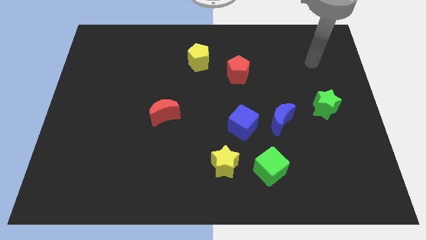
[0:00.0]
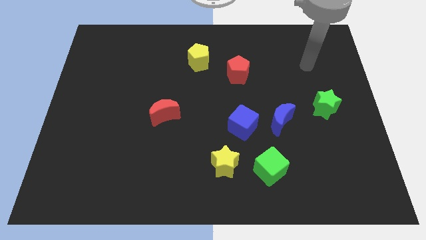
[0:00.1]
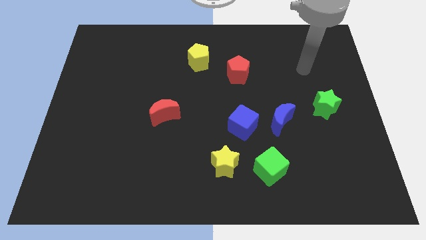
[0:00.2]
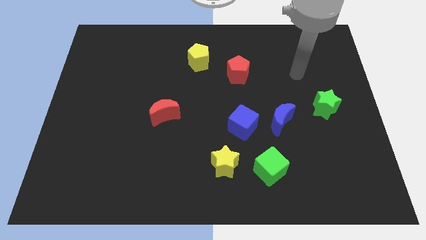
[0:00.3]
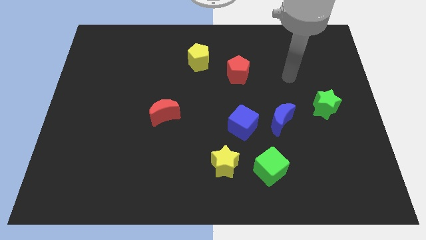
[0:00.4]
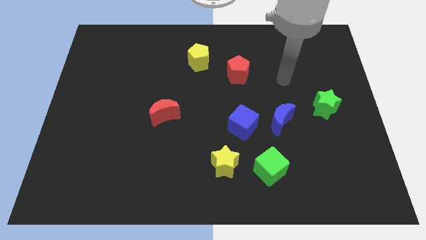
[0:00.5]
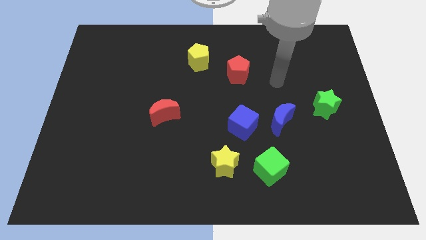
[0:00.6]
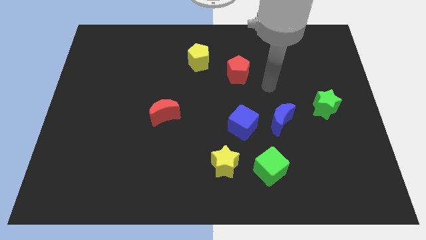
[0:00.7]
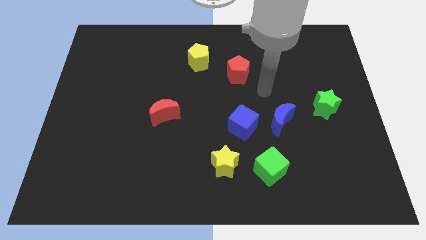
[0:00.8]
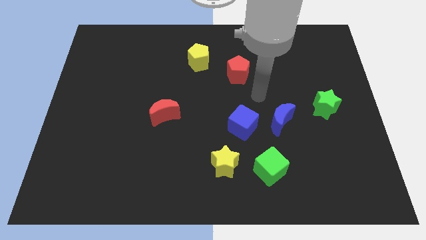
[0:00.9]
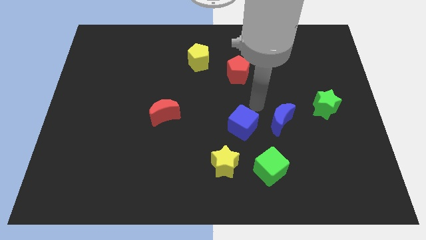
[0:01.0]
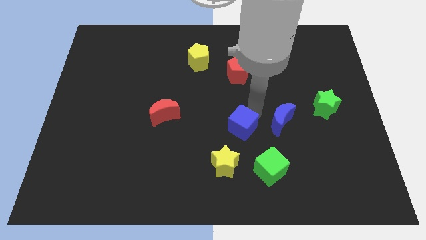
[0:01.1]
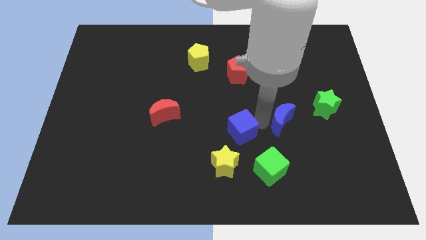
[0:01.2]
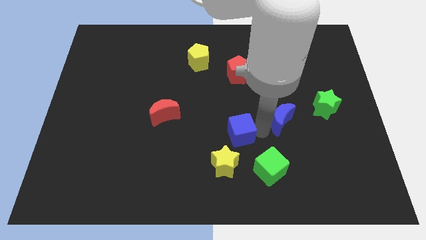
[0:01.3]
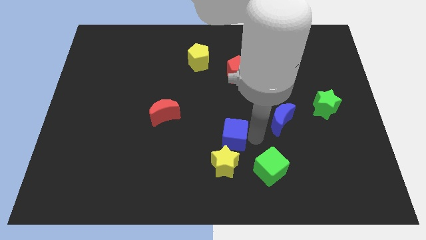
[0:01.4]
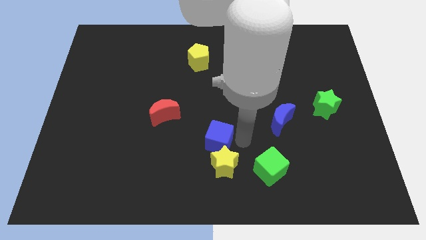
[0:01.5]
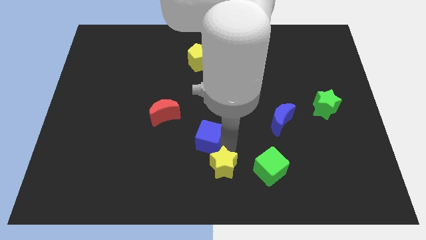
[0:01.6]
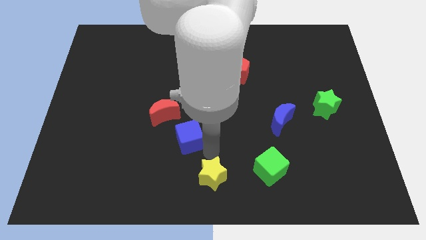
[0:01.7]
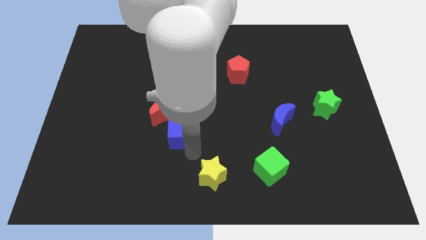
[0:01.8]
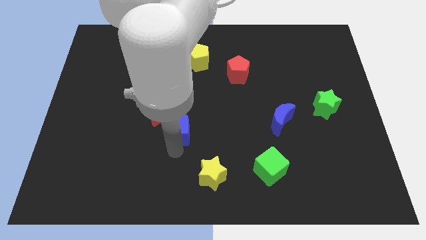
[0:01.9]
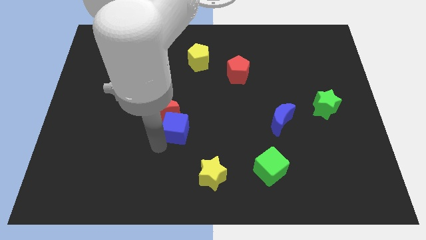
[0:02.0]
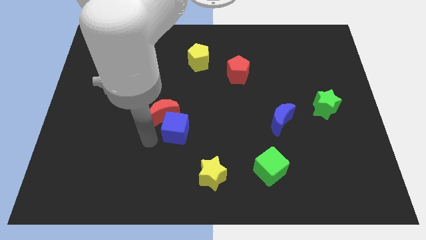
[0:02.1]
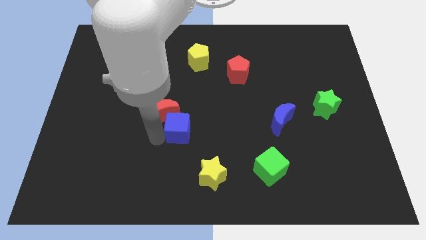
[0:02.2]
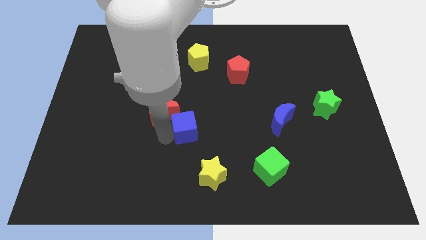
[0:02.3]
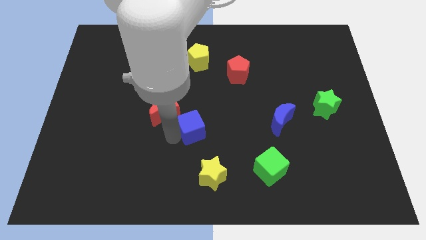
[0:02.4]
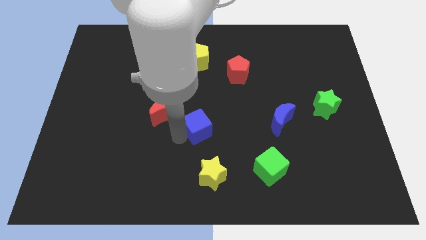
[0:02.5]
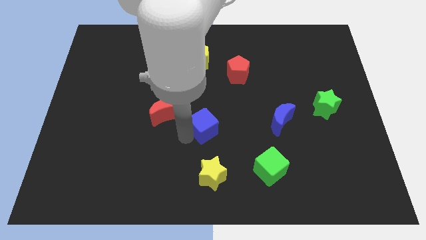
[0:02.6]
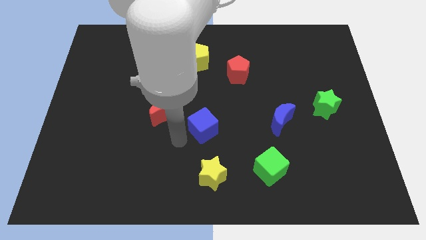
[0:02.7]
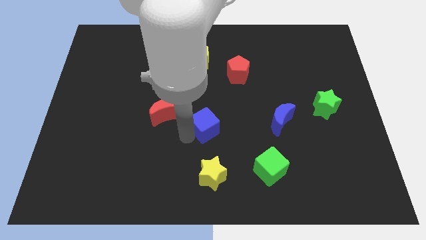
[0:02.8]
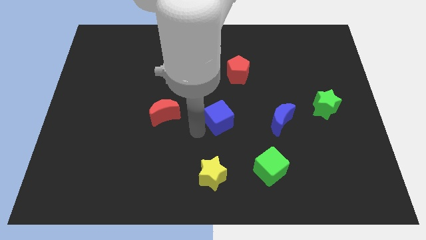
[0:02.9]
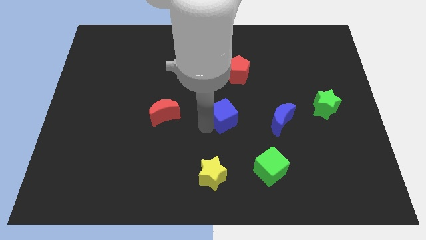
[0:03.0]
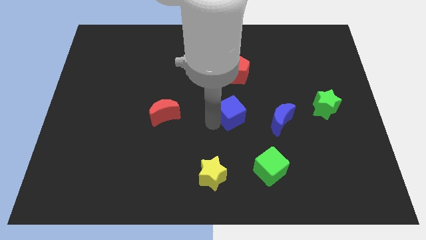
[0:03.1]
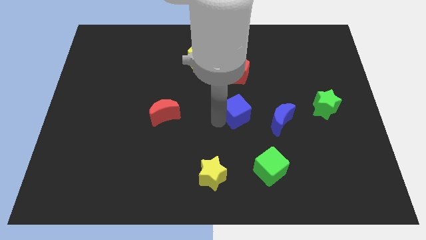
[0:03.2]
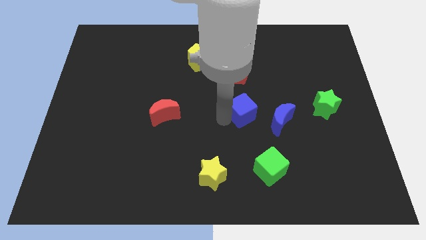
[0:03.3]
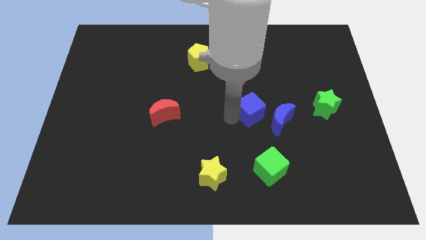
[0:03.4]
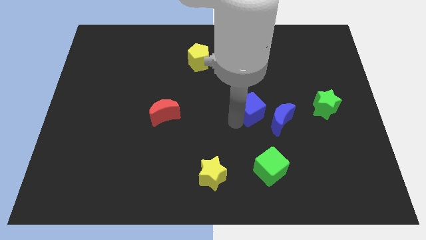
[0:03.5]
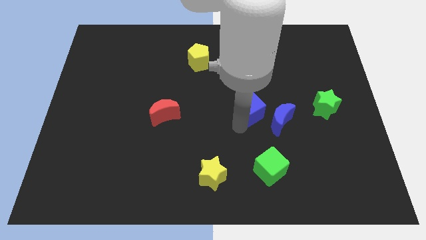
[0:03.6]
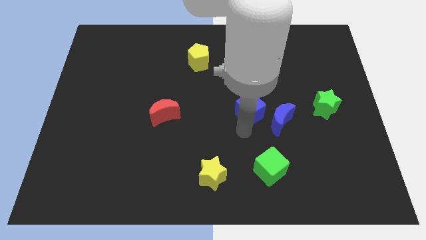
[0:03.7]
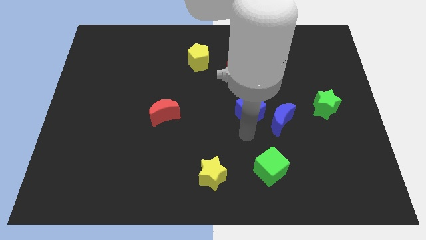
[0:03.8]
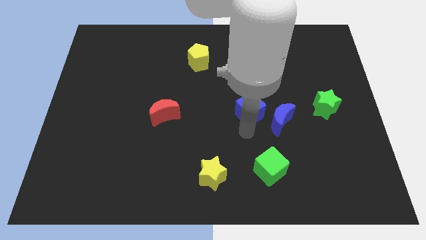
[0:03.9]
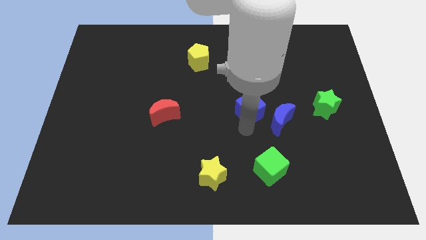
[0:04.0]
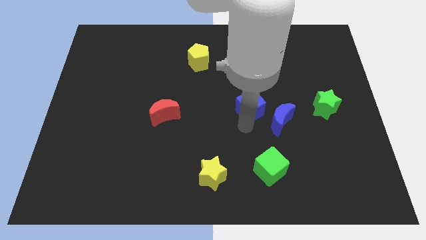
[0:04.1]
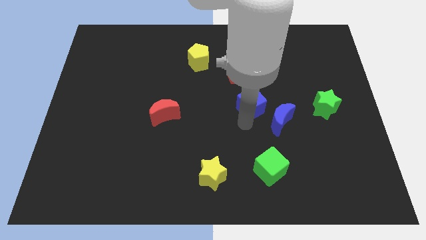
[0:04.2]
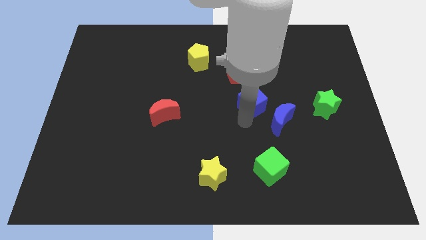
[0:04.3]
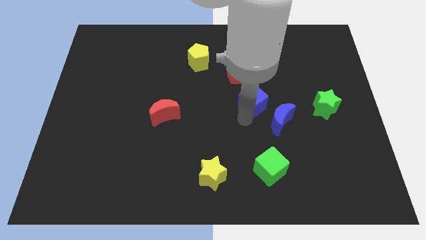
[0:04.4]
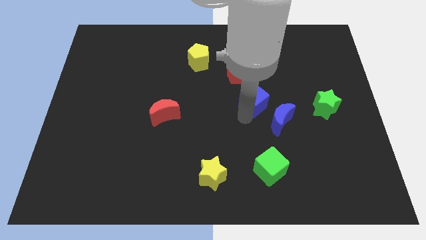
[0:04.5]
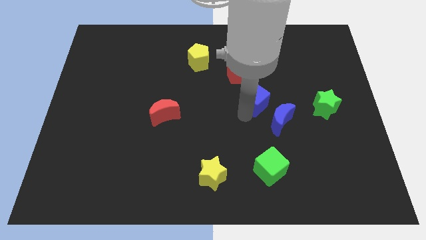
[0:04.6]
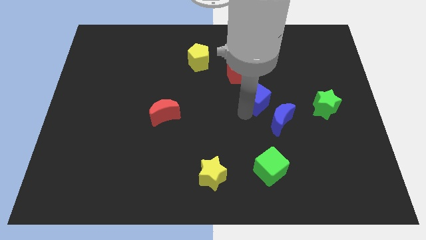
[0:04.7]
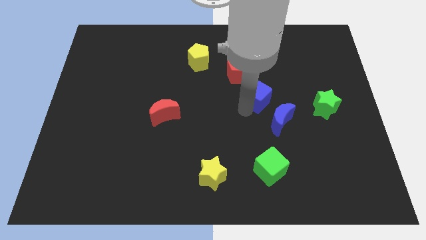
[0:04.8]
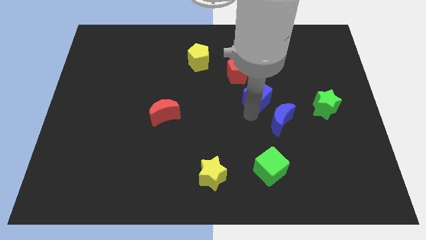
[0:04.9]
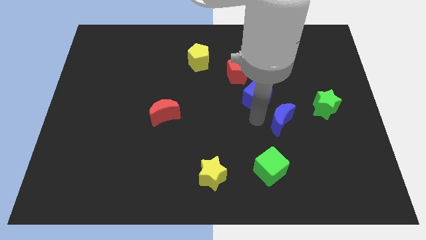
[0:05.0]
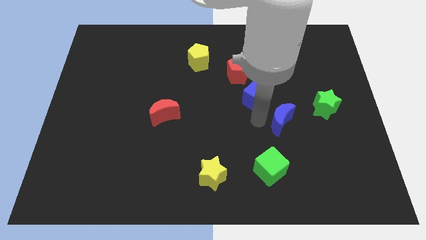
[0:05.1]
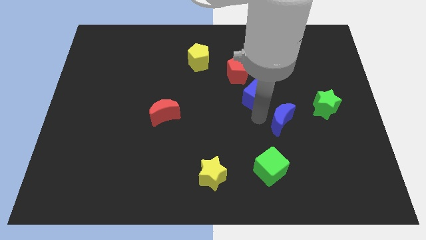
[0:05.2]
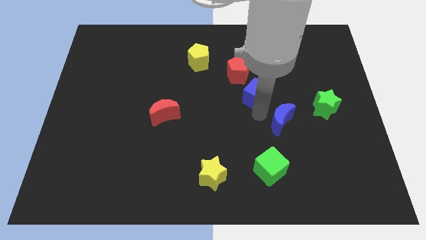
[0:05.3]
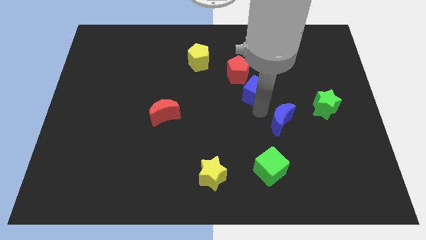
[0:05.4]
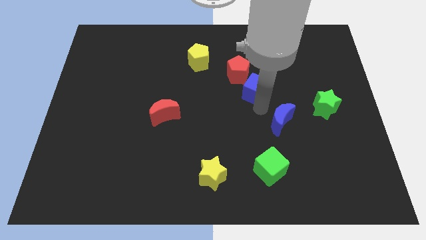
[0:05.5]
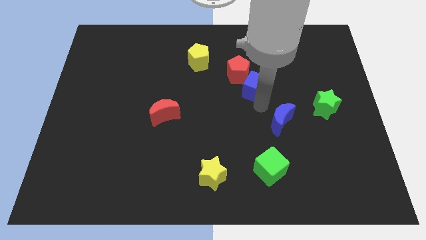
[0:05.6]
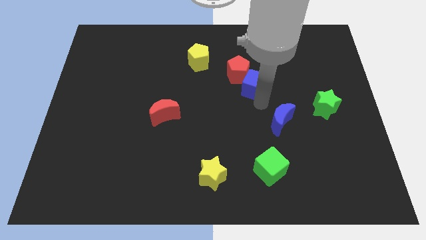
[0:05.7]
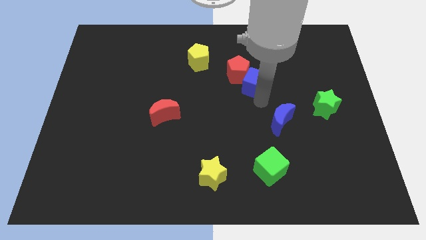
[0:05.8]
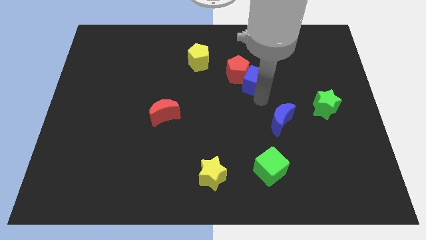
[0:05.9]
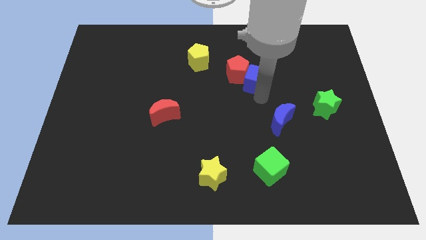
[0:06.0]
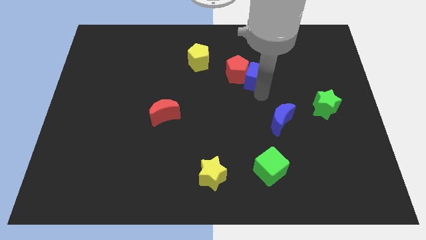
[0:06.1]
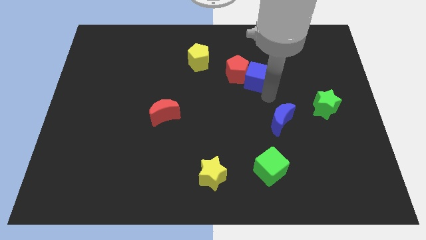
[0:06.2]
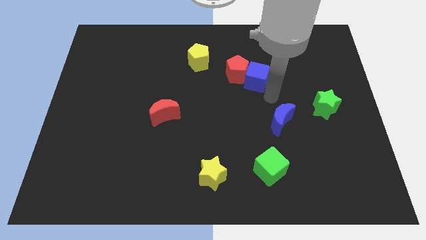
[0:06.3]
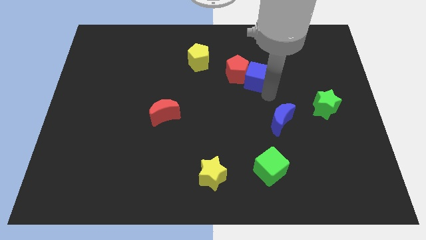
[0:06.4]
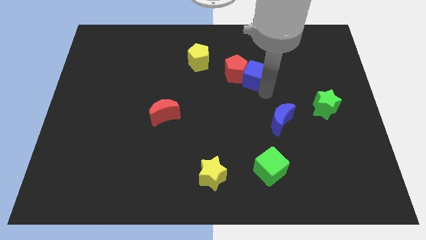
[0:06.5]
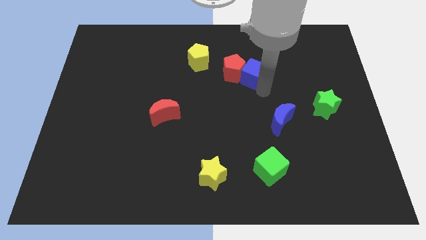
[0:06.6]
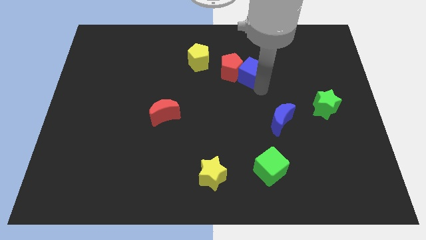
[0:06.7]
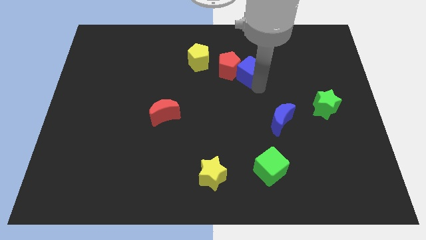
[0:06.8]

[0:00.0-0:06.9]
push the blue cube to the right side of the yellow pentagon

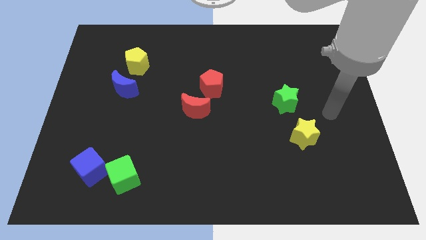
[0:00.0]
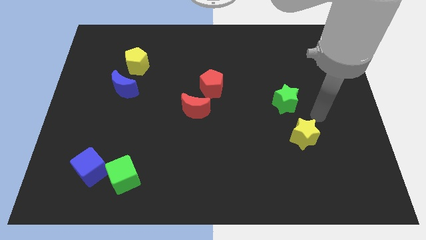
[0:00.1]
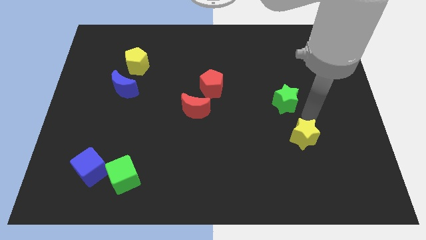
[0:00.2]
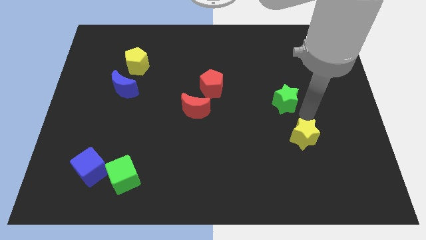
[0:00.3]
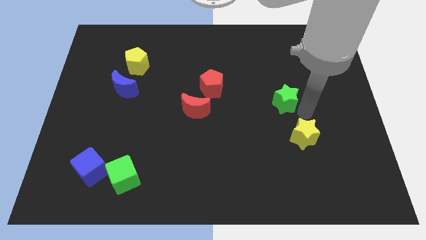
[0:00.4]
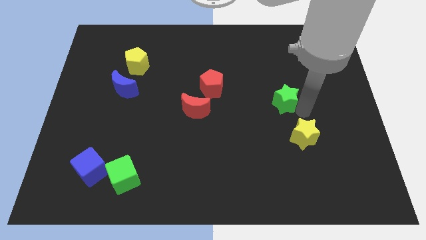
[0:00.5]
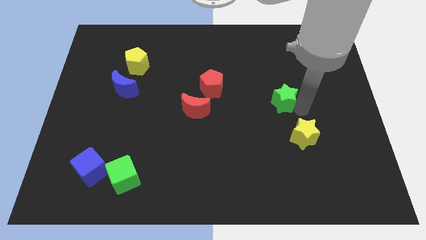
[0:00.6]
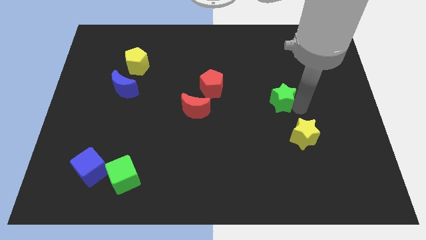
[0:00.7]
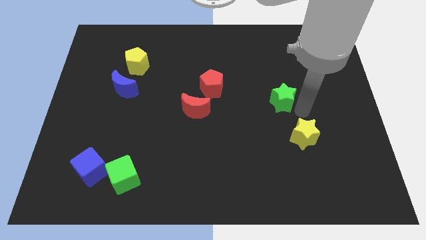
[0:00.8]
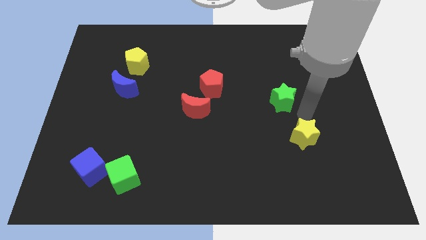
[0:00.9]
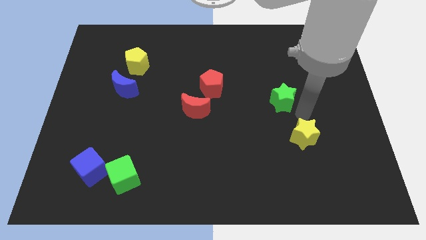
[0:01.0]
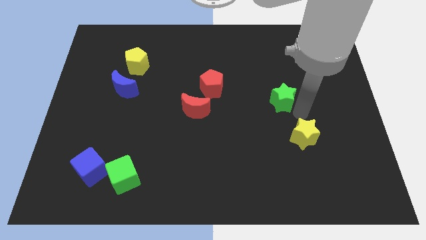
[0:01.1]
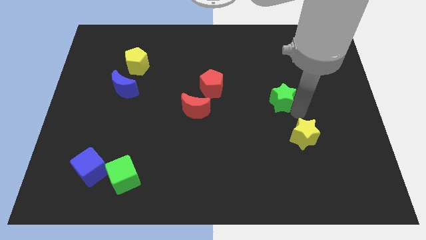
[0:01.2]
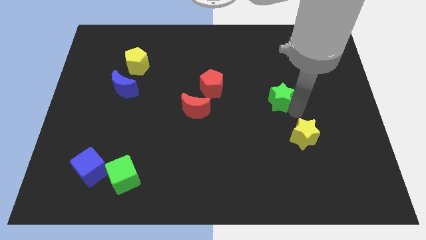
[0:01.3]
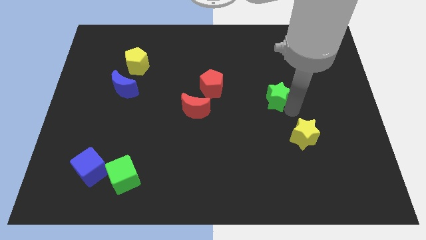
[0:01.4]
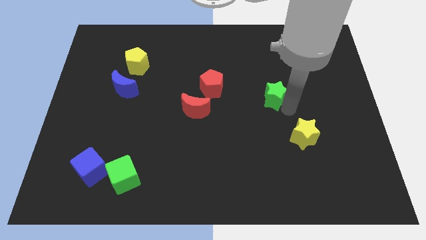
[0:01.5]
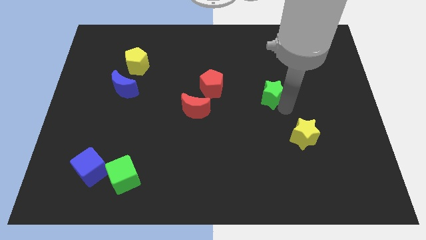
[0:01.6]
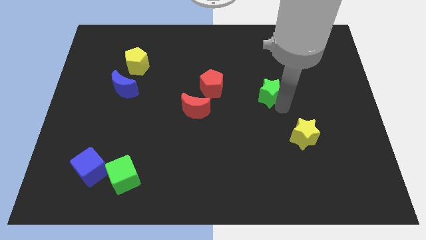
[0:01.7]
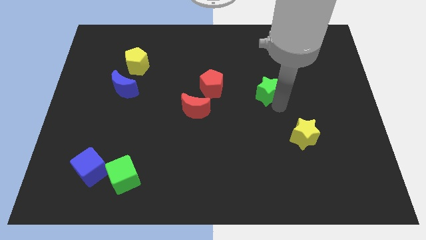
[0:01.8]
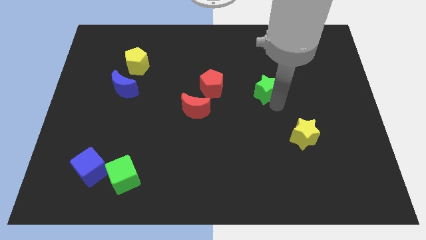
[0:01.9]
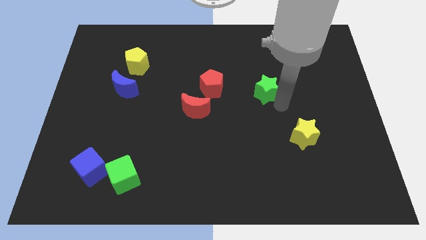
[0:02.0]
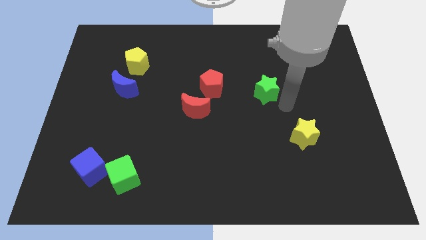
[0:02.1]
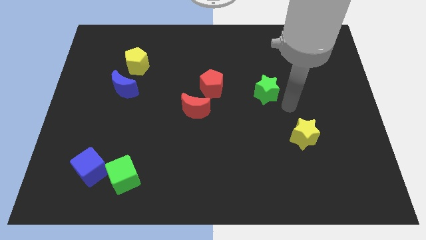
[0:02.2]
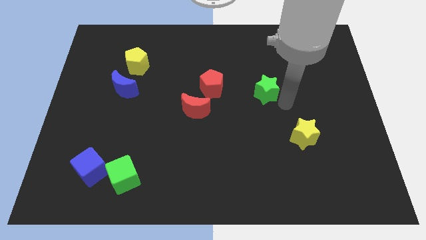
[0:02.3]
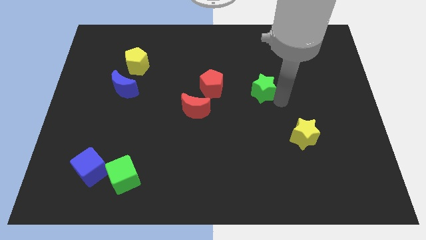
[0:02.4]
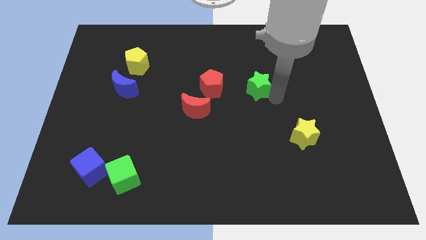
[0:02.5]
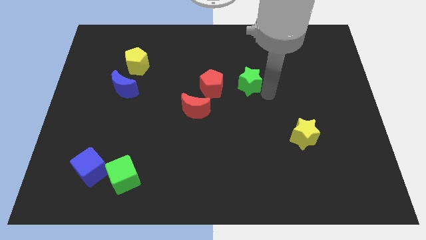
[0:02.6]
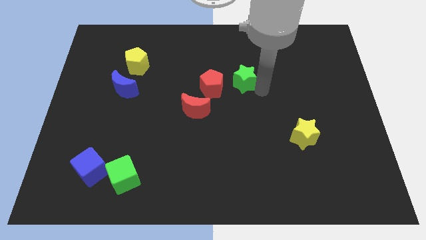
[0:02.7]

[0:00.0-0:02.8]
put the green star to the top right of the red pentagon
